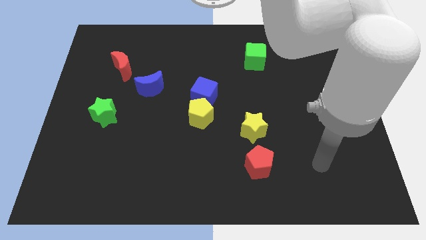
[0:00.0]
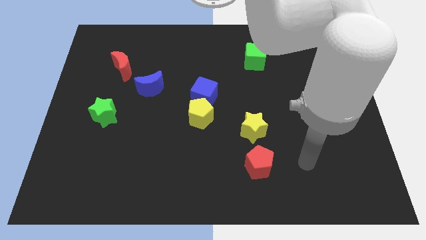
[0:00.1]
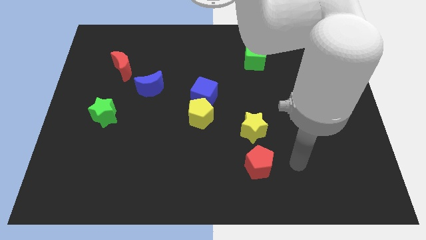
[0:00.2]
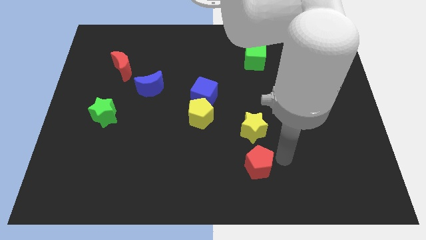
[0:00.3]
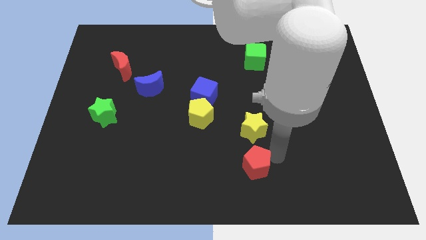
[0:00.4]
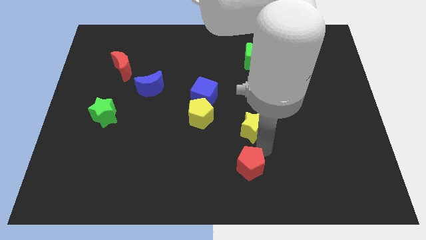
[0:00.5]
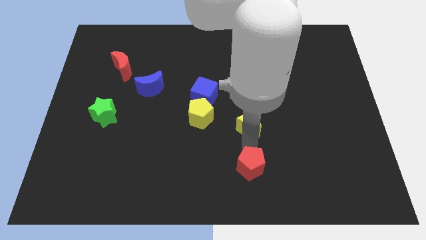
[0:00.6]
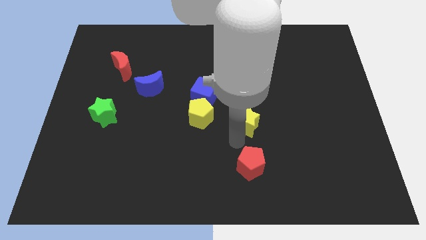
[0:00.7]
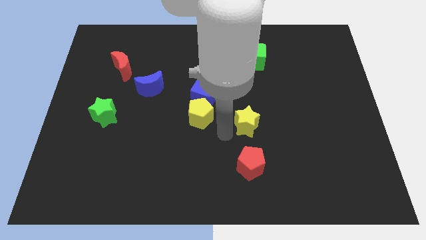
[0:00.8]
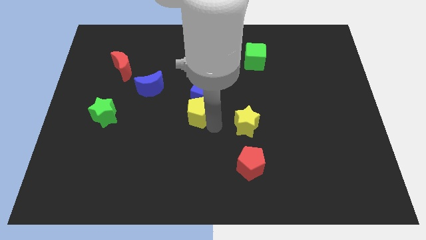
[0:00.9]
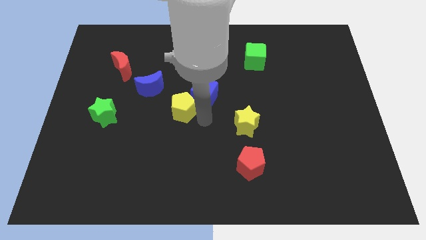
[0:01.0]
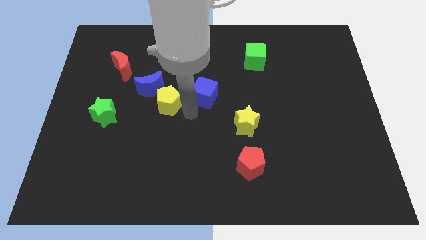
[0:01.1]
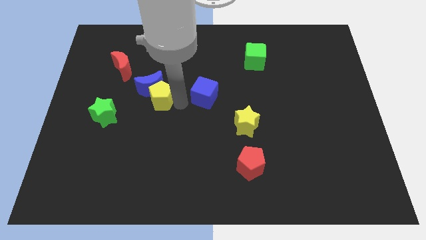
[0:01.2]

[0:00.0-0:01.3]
pull the blue cube apart from the yellow pentagon

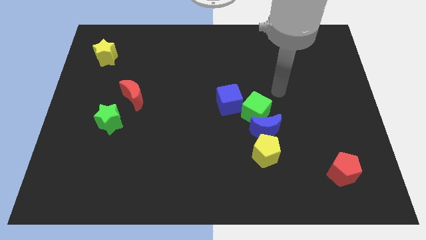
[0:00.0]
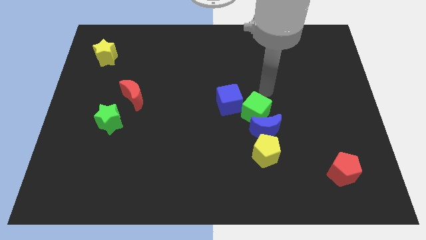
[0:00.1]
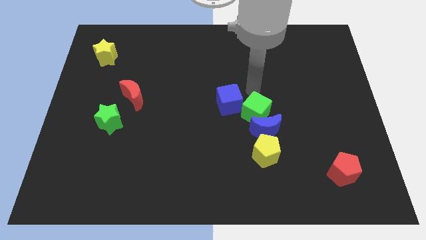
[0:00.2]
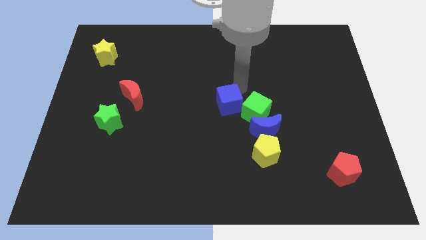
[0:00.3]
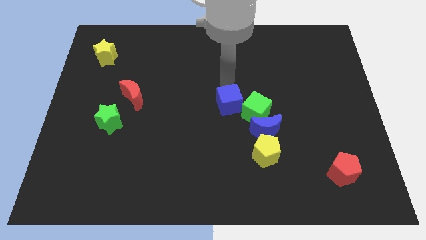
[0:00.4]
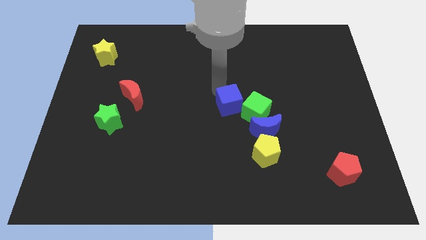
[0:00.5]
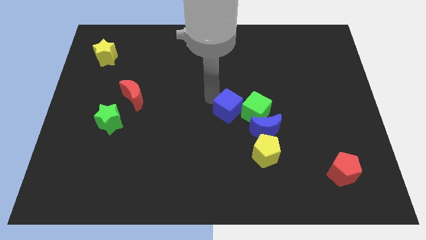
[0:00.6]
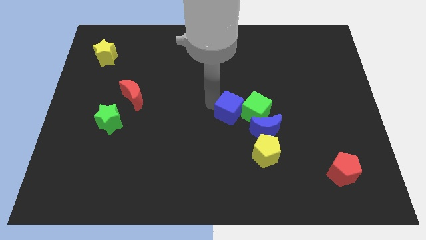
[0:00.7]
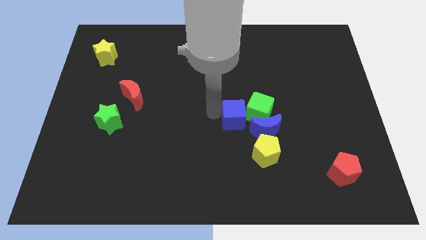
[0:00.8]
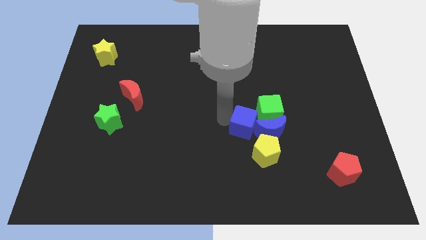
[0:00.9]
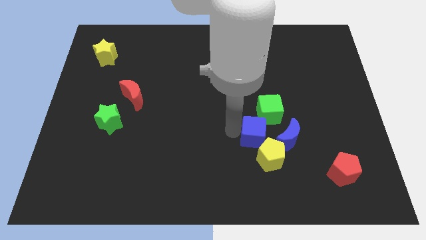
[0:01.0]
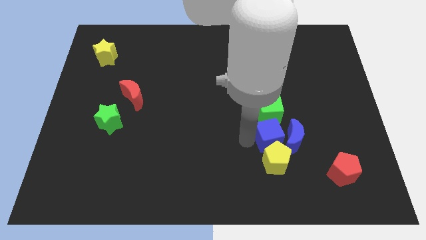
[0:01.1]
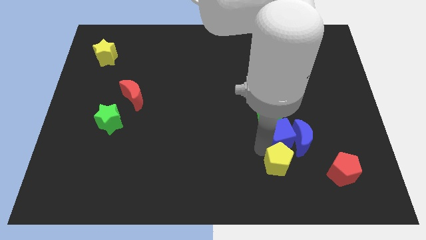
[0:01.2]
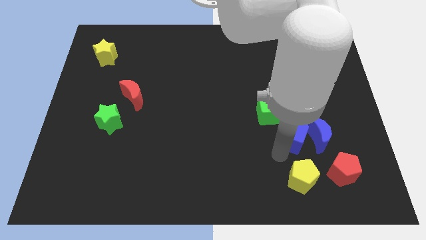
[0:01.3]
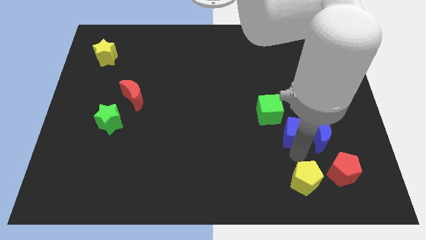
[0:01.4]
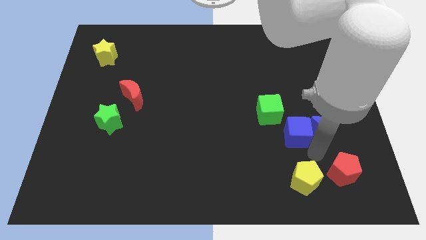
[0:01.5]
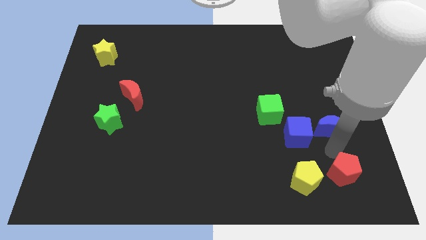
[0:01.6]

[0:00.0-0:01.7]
separate the blue moon from the green cube and yellow pentagon

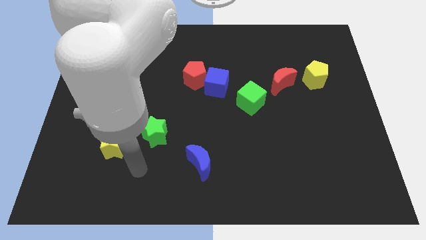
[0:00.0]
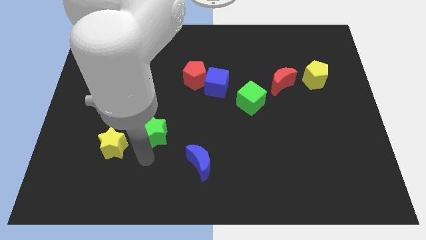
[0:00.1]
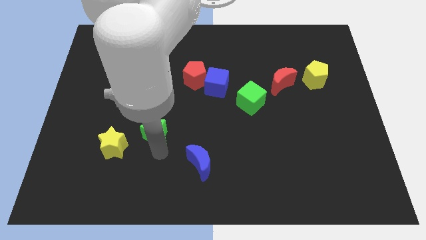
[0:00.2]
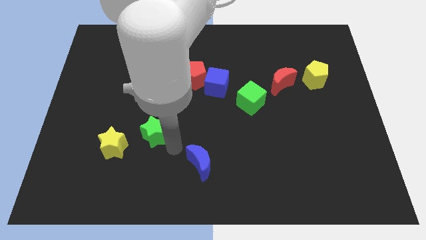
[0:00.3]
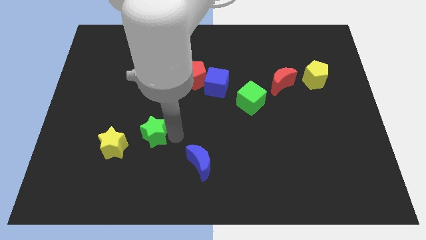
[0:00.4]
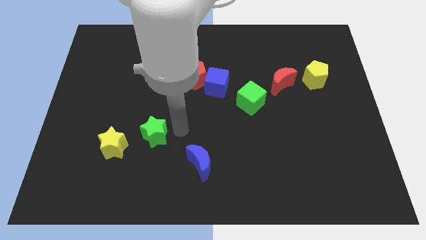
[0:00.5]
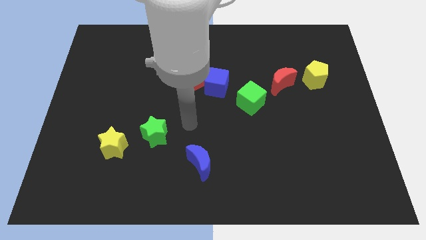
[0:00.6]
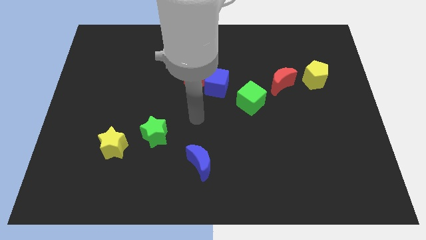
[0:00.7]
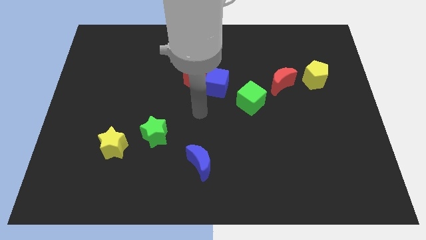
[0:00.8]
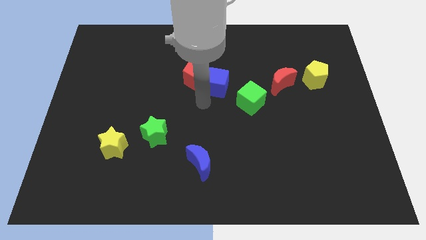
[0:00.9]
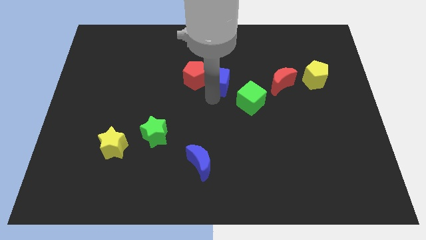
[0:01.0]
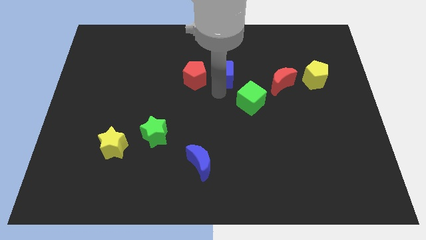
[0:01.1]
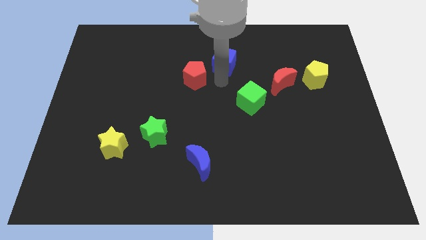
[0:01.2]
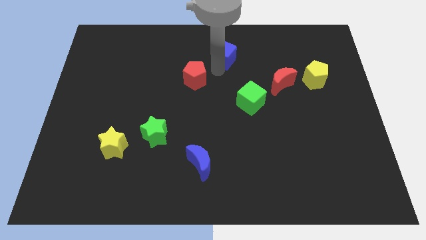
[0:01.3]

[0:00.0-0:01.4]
move the red pentagon away from the blue cube

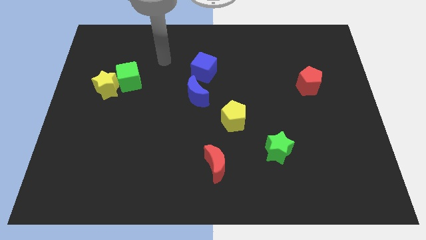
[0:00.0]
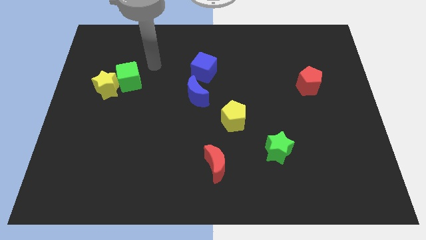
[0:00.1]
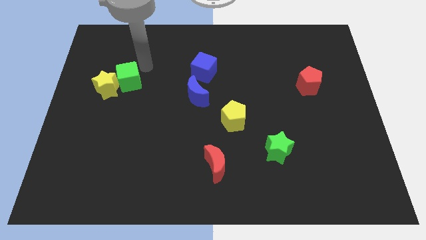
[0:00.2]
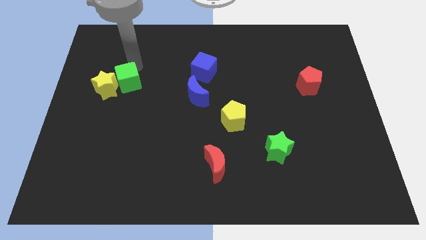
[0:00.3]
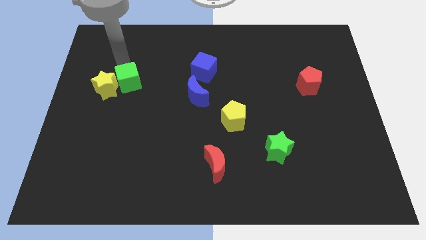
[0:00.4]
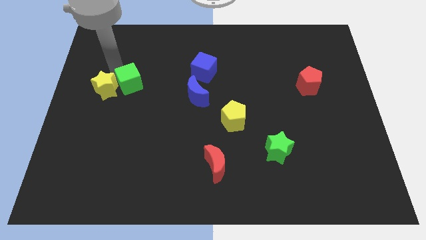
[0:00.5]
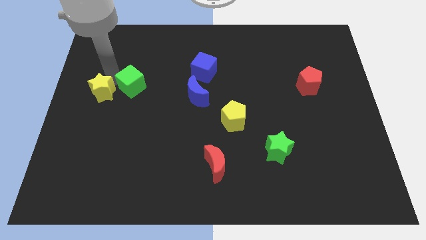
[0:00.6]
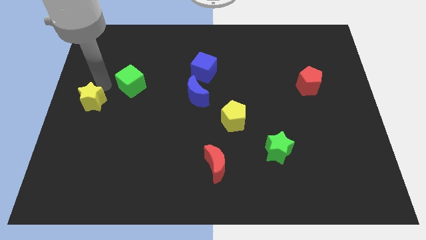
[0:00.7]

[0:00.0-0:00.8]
separate the green cube from the yellow star

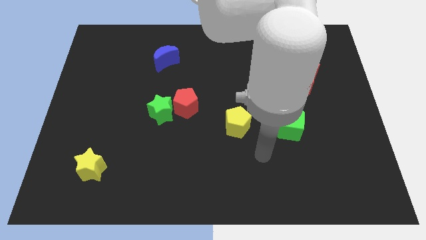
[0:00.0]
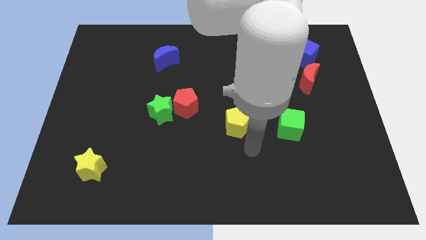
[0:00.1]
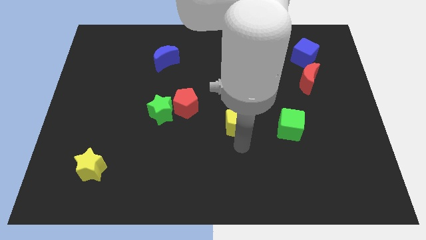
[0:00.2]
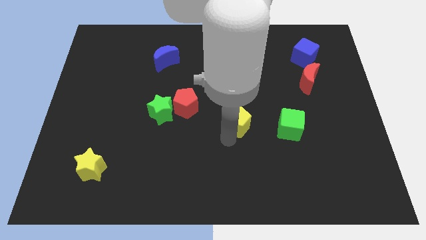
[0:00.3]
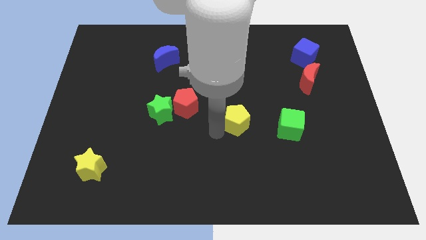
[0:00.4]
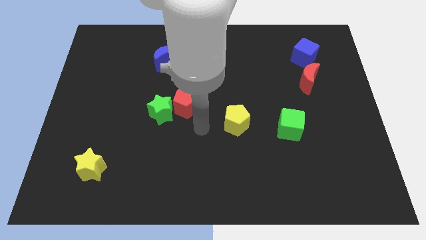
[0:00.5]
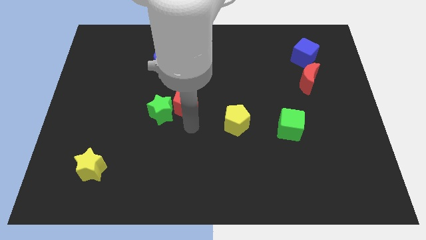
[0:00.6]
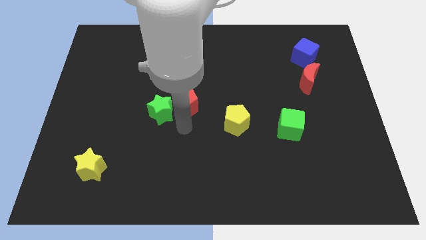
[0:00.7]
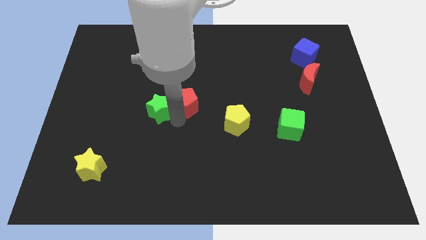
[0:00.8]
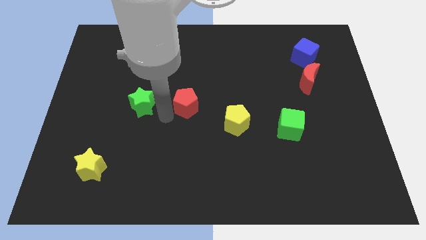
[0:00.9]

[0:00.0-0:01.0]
move the red pentagon away from the green star

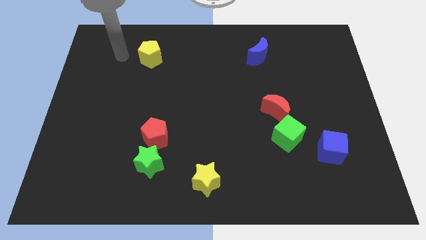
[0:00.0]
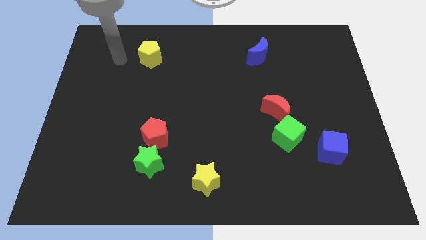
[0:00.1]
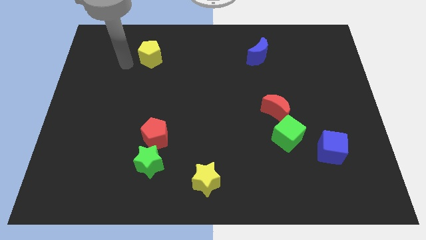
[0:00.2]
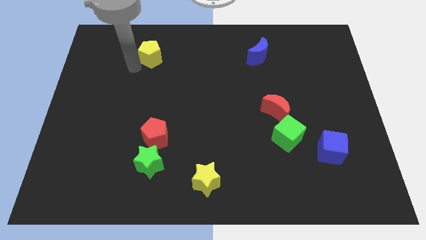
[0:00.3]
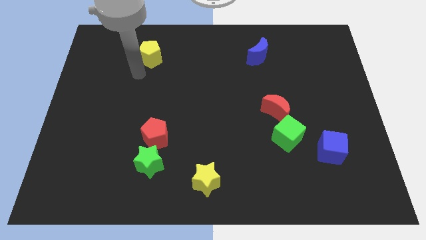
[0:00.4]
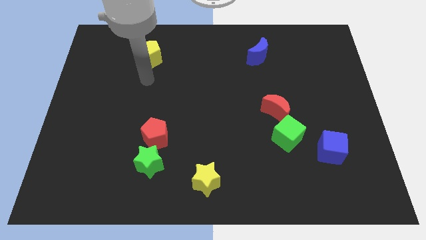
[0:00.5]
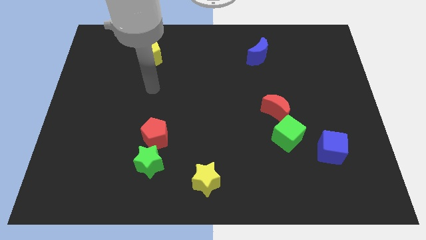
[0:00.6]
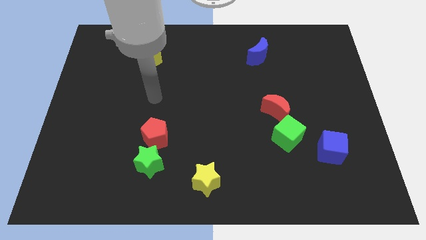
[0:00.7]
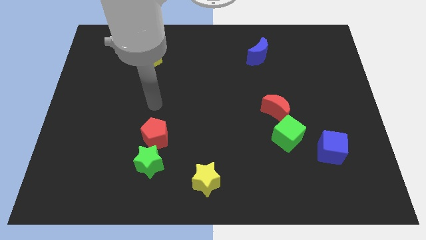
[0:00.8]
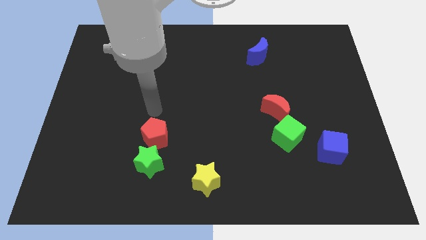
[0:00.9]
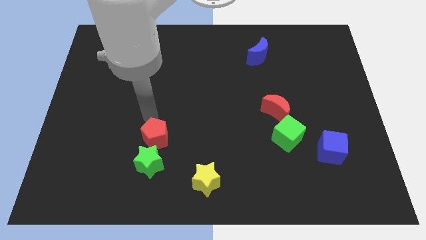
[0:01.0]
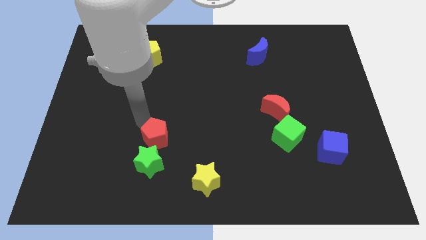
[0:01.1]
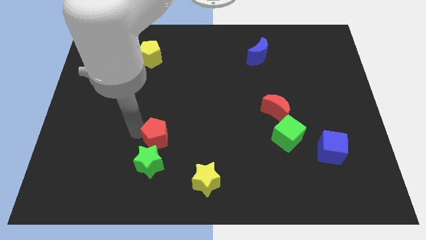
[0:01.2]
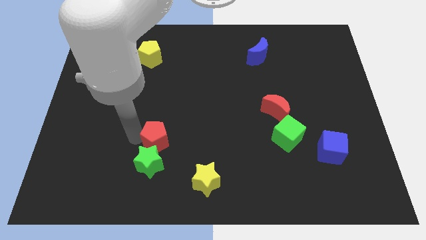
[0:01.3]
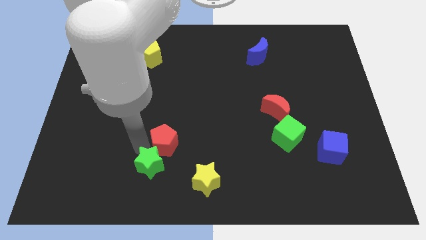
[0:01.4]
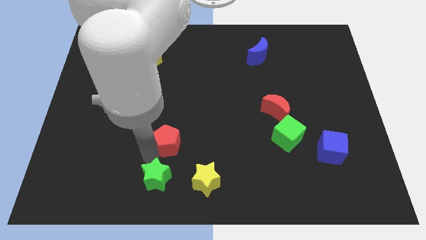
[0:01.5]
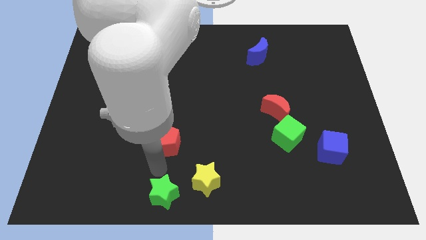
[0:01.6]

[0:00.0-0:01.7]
pull the red pentagon apart from the green star

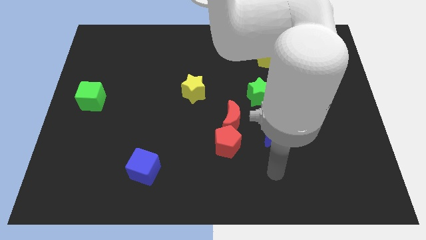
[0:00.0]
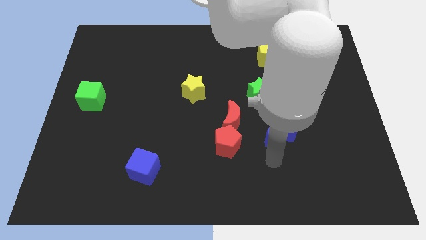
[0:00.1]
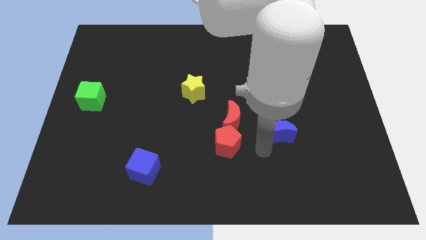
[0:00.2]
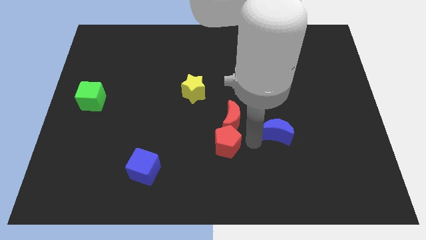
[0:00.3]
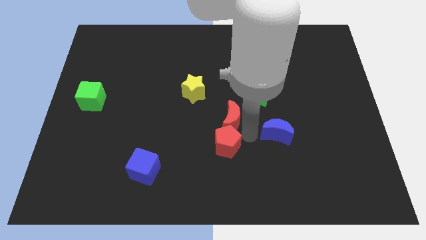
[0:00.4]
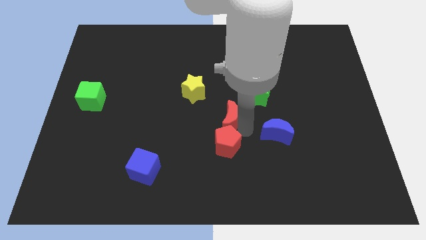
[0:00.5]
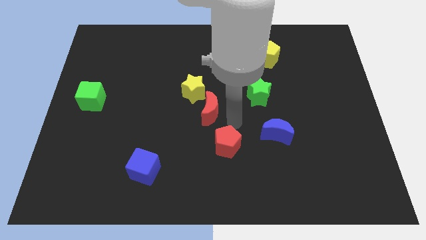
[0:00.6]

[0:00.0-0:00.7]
separate the red pentagon from the red moon

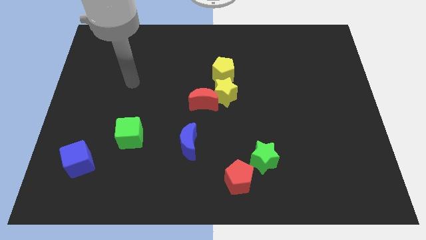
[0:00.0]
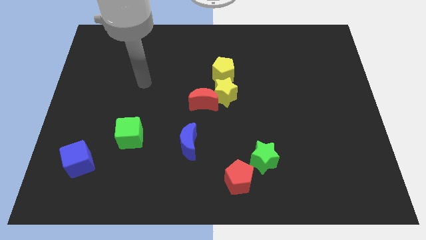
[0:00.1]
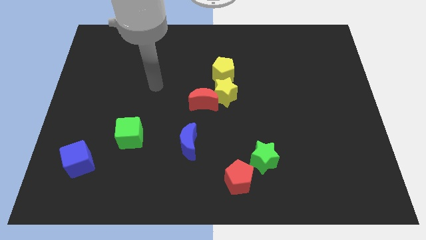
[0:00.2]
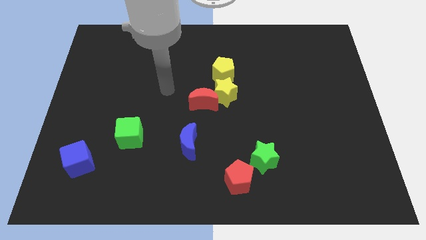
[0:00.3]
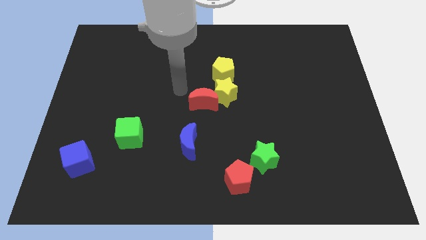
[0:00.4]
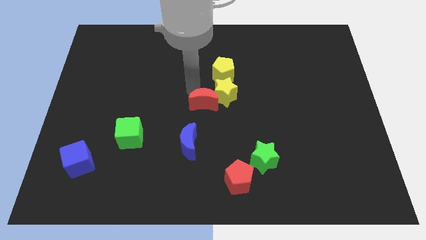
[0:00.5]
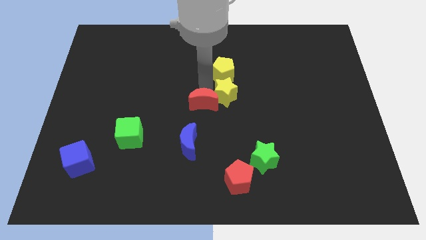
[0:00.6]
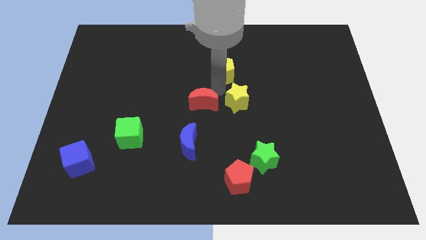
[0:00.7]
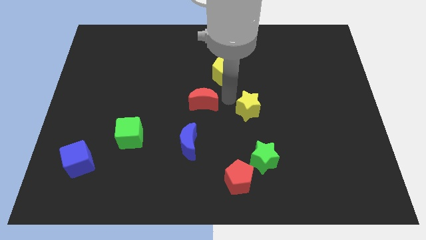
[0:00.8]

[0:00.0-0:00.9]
pull the red moon apart from the yellow star
